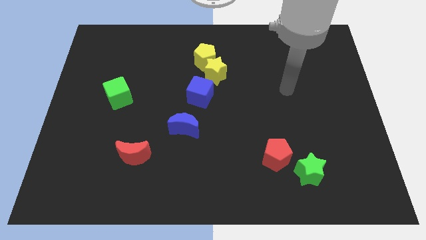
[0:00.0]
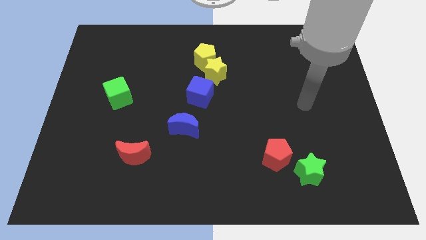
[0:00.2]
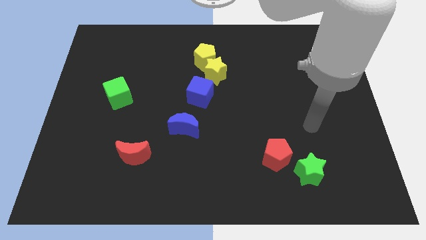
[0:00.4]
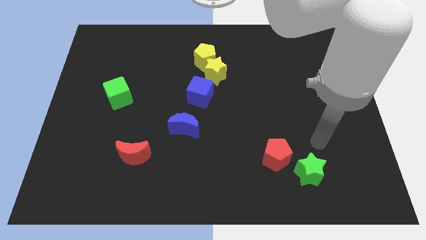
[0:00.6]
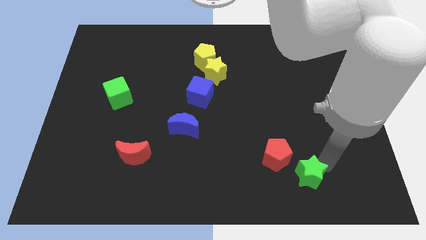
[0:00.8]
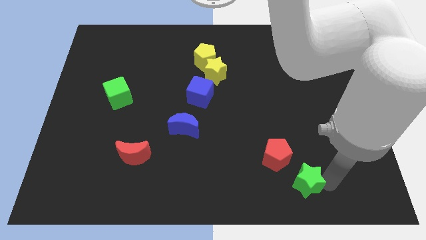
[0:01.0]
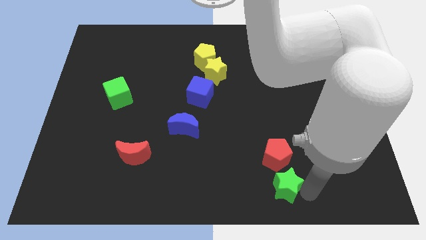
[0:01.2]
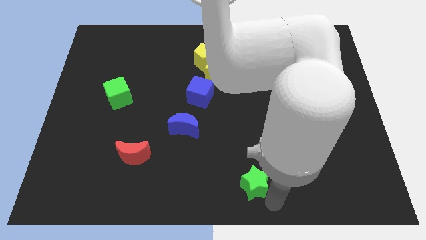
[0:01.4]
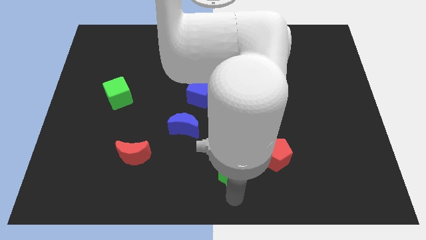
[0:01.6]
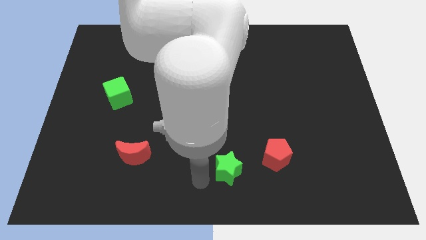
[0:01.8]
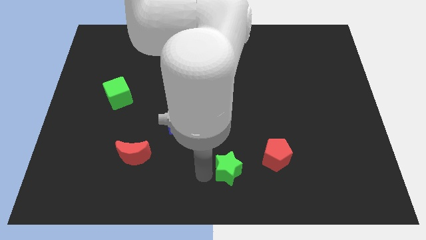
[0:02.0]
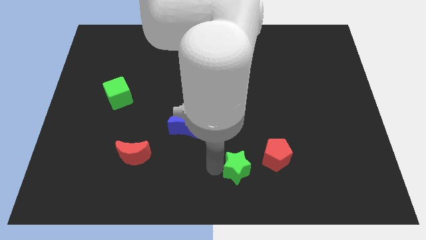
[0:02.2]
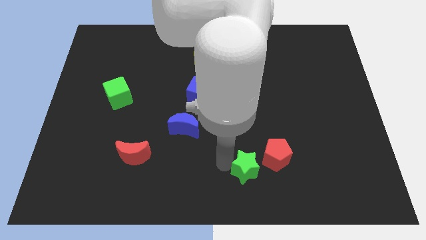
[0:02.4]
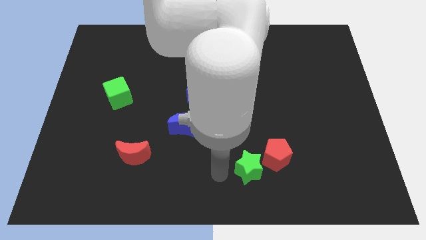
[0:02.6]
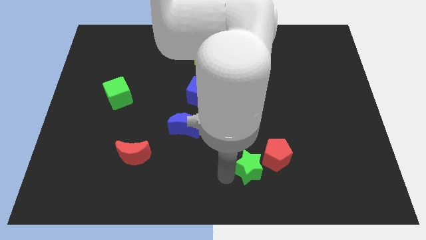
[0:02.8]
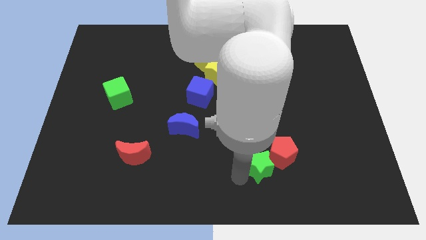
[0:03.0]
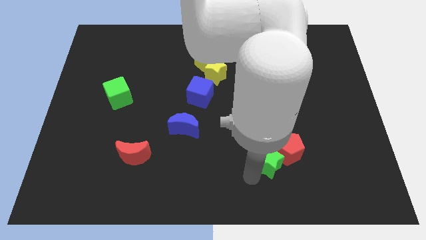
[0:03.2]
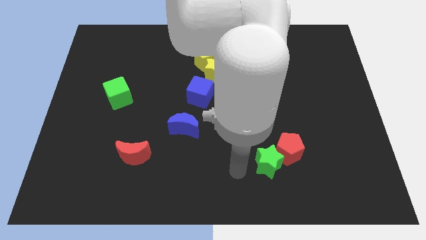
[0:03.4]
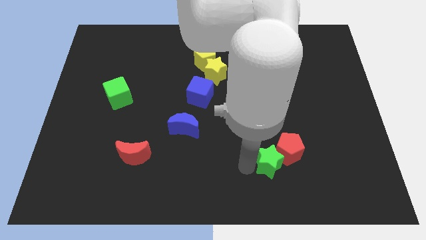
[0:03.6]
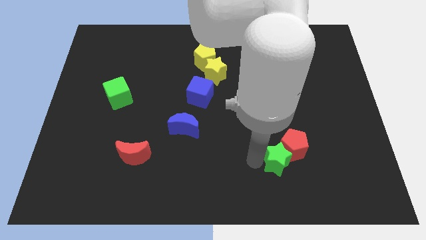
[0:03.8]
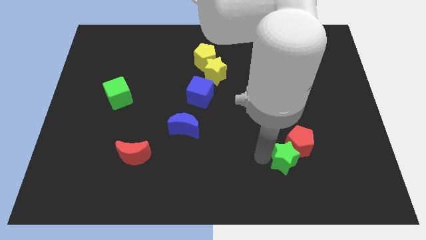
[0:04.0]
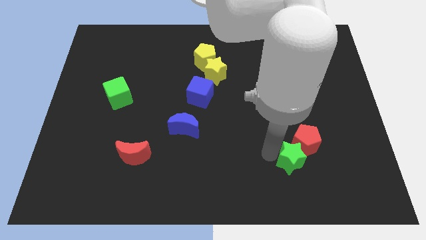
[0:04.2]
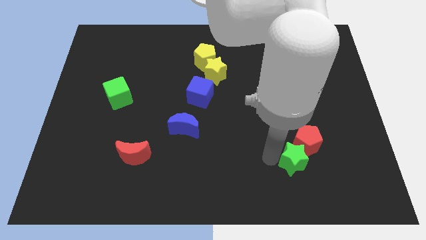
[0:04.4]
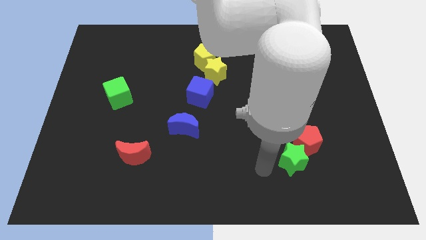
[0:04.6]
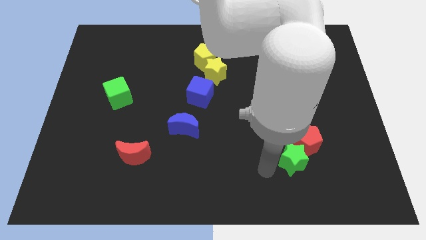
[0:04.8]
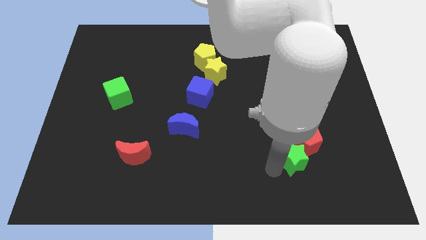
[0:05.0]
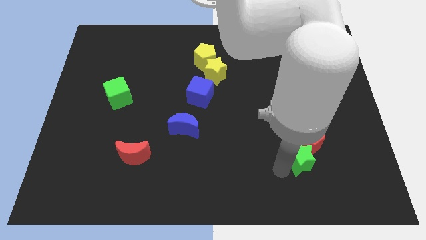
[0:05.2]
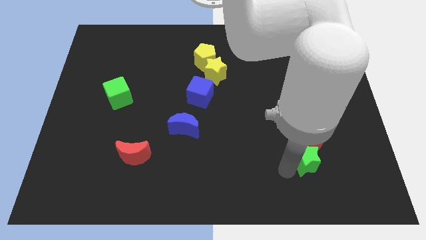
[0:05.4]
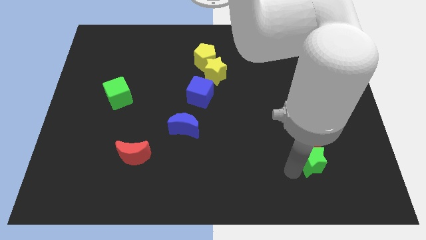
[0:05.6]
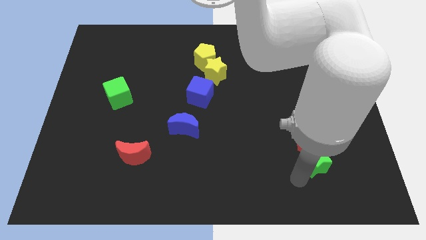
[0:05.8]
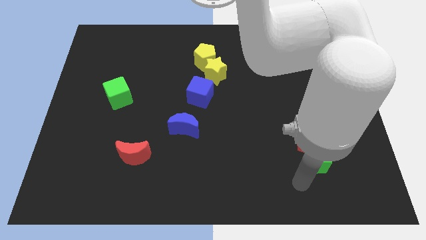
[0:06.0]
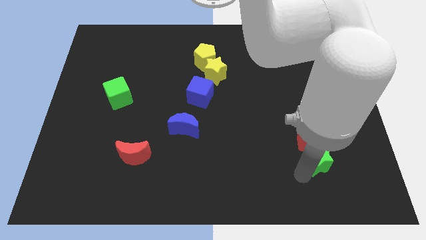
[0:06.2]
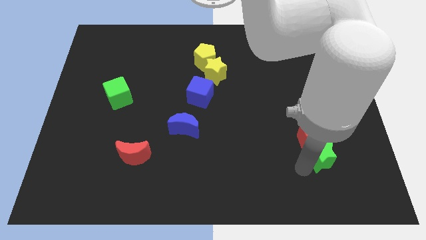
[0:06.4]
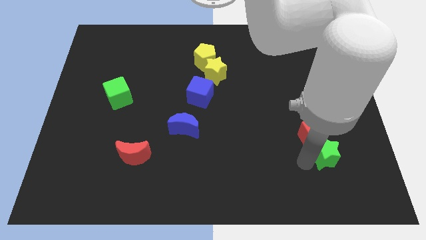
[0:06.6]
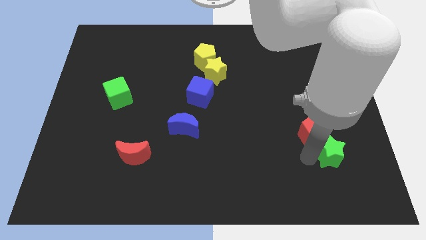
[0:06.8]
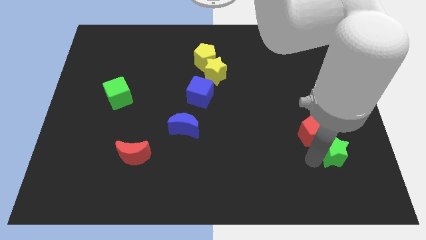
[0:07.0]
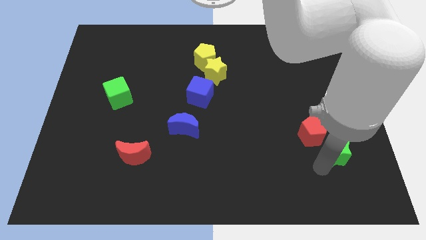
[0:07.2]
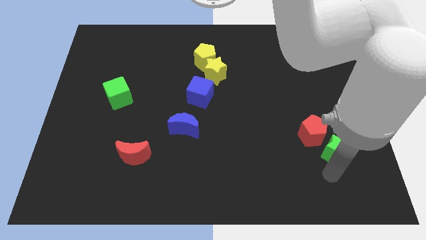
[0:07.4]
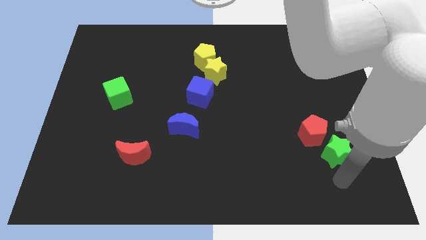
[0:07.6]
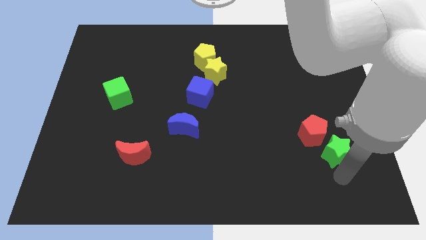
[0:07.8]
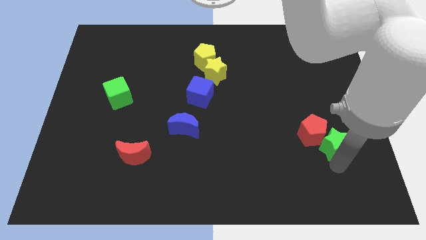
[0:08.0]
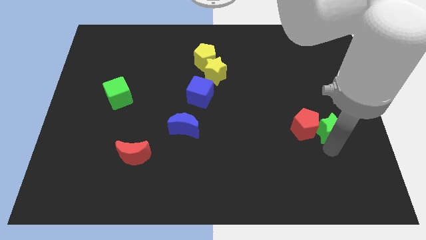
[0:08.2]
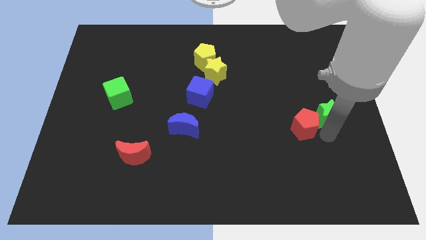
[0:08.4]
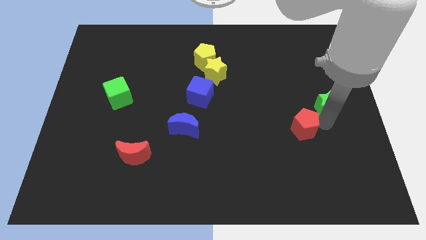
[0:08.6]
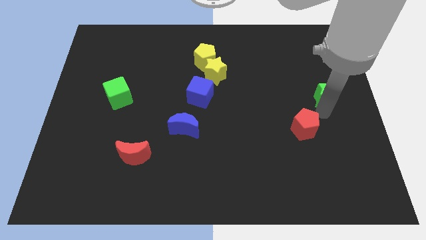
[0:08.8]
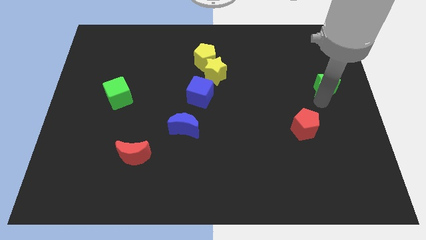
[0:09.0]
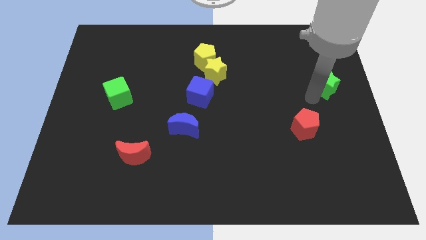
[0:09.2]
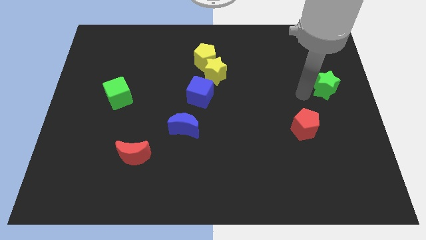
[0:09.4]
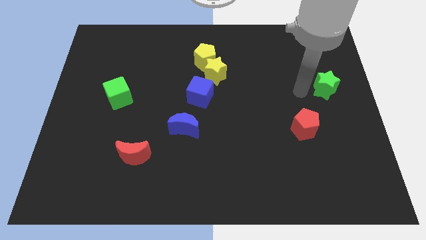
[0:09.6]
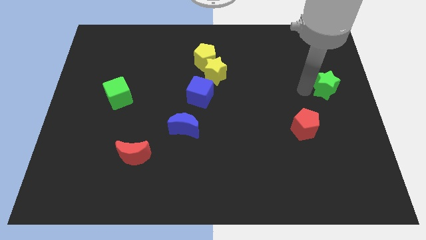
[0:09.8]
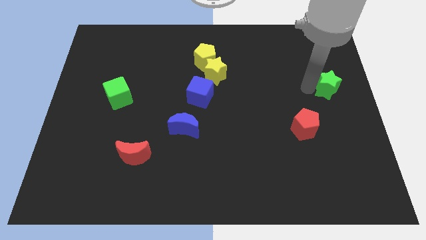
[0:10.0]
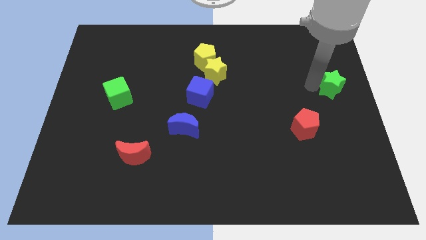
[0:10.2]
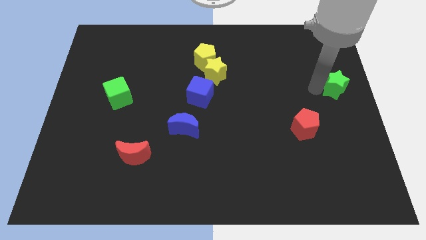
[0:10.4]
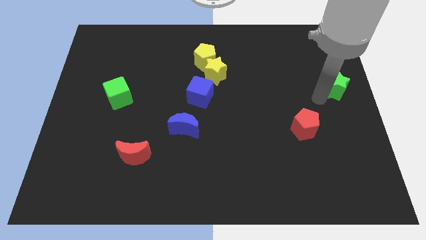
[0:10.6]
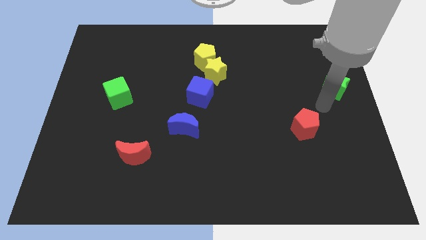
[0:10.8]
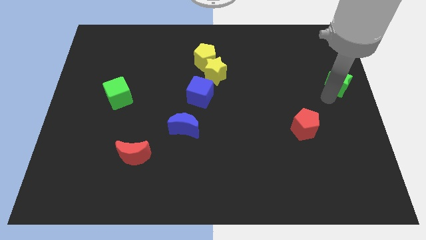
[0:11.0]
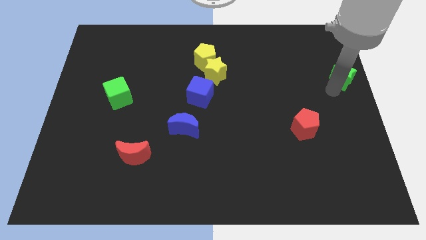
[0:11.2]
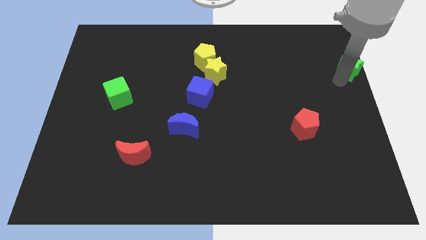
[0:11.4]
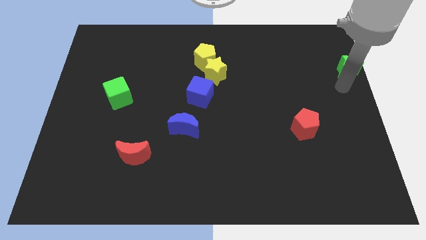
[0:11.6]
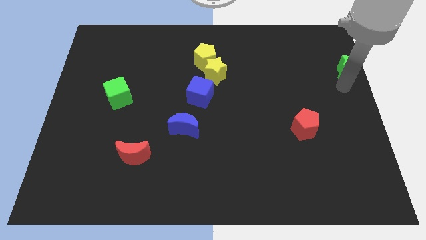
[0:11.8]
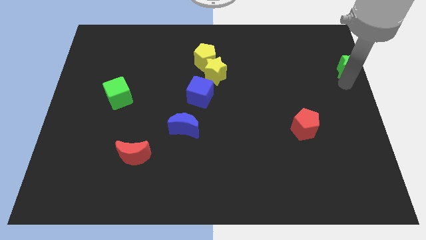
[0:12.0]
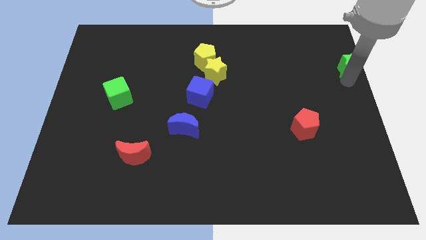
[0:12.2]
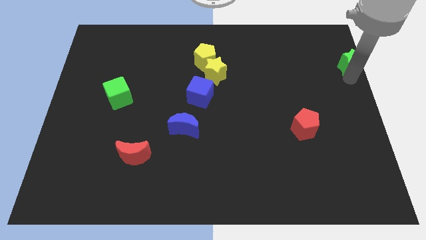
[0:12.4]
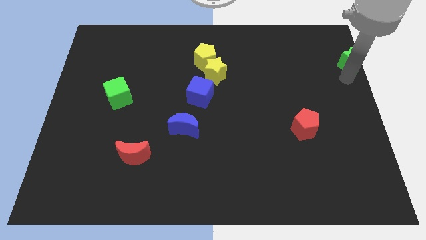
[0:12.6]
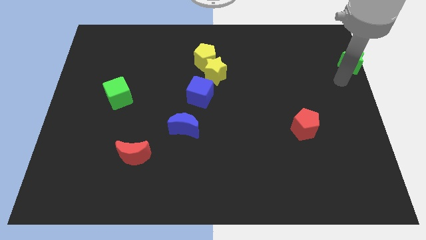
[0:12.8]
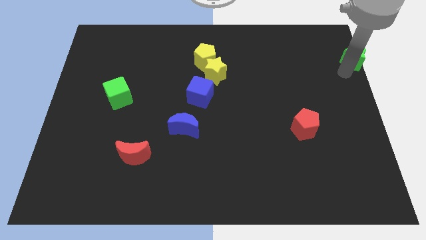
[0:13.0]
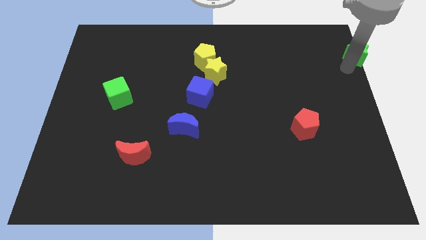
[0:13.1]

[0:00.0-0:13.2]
slide the green star to the top right of the board
